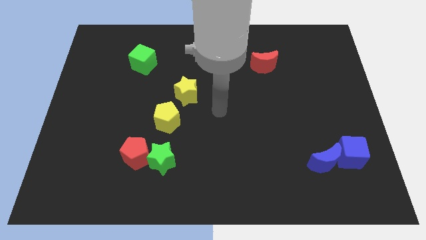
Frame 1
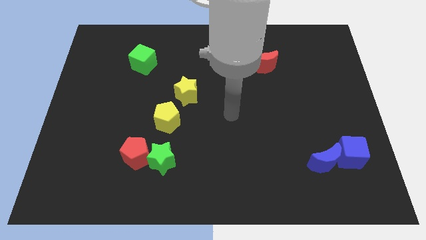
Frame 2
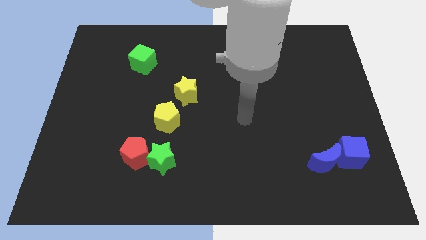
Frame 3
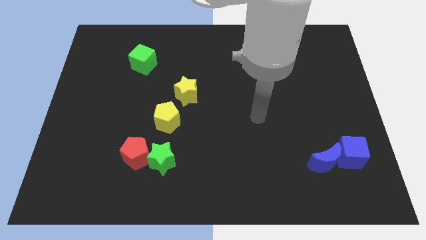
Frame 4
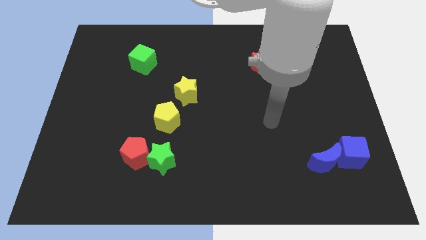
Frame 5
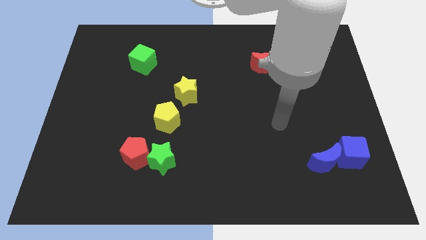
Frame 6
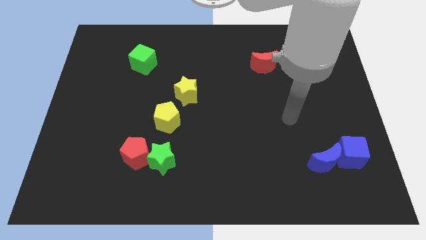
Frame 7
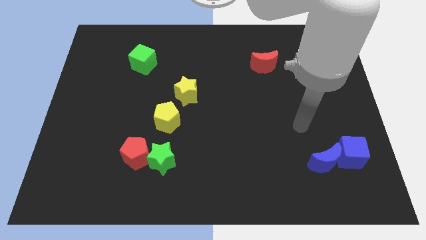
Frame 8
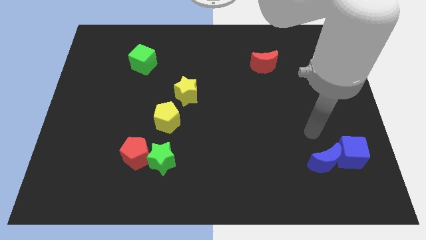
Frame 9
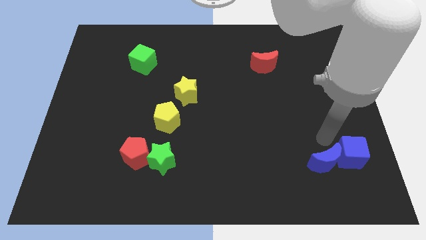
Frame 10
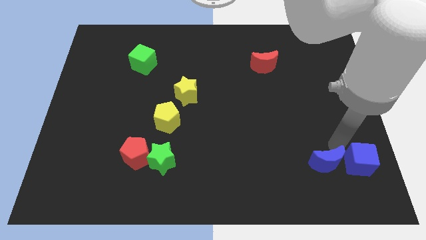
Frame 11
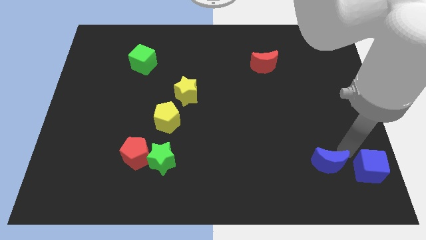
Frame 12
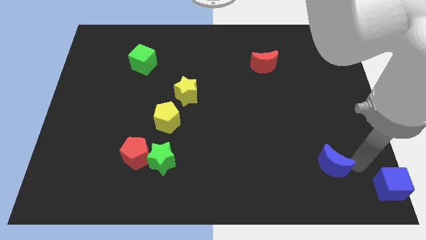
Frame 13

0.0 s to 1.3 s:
pull the blue moon apart from the blue cube

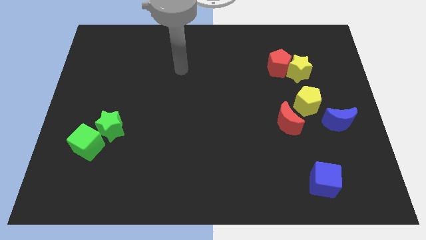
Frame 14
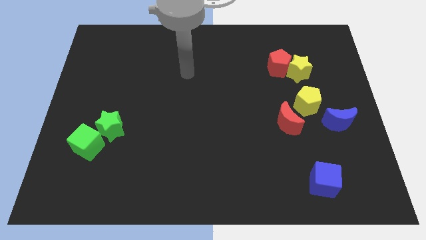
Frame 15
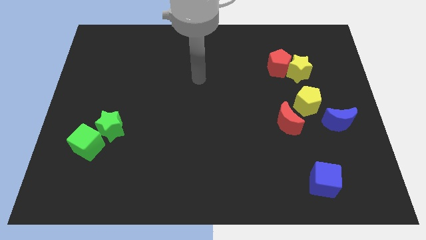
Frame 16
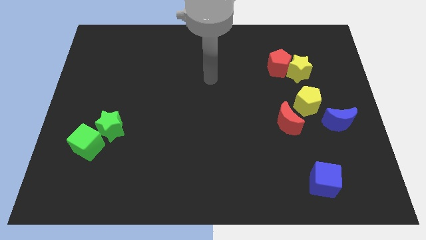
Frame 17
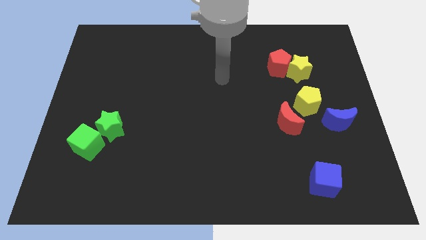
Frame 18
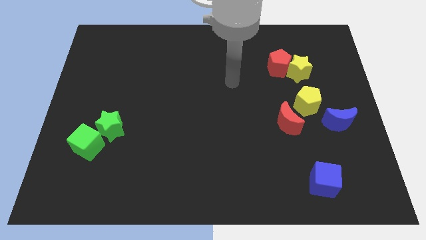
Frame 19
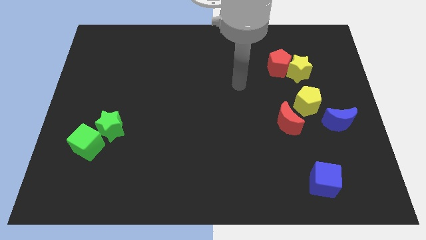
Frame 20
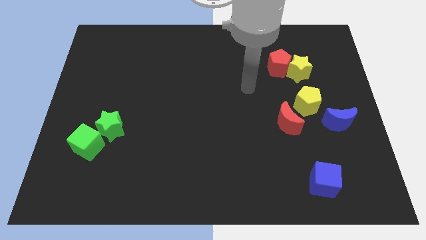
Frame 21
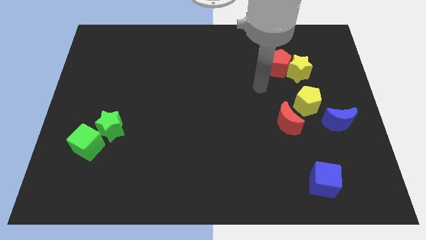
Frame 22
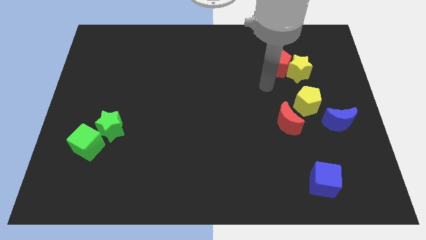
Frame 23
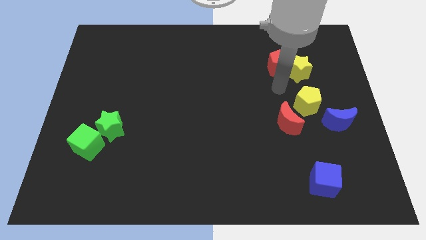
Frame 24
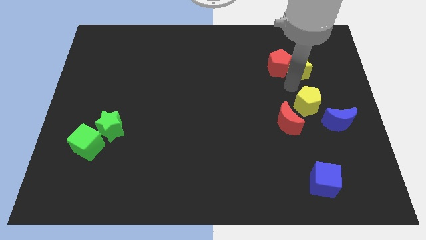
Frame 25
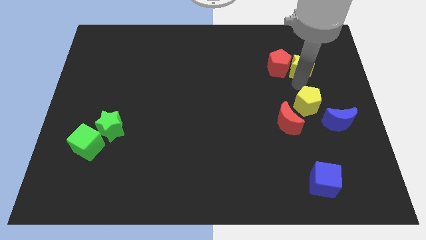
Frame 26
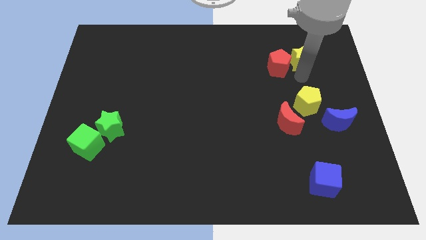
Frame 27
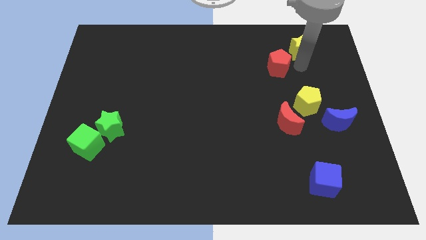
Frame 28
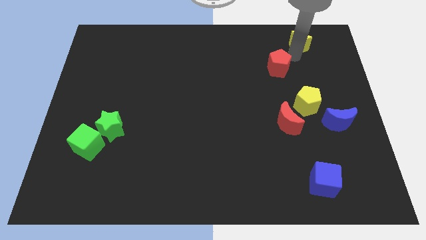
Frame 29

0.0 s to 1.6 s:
separate the red pentagon from the yellow star

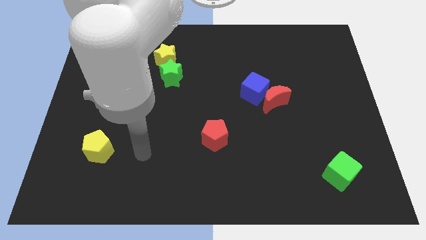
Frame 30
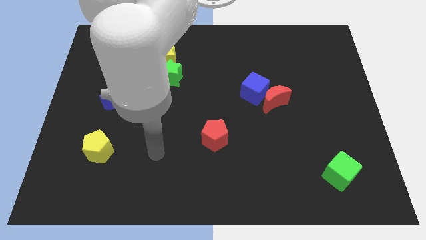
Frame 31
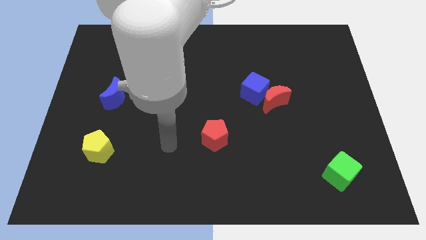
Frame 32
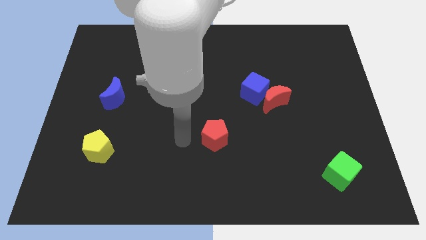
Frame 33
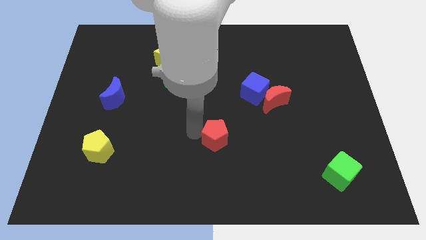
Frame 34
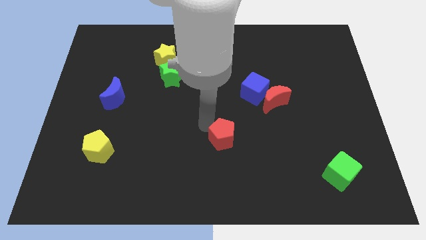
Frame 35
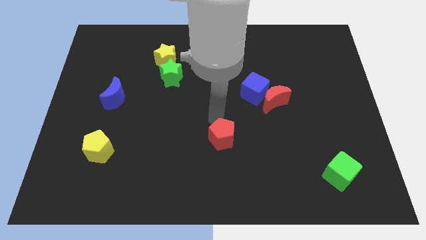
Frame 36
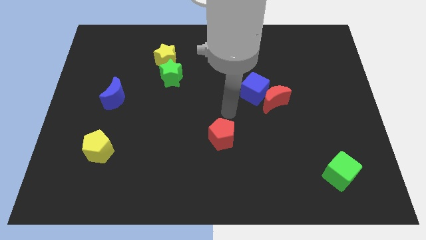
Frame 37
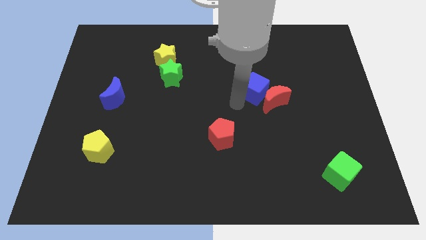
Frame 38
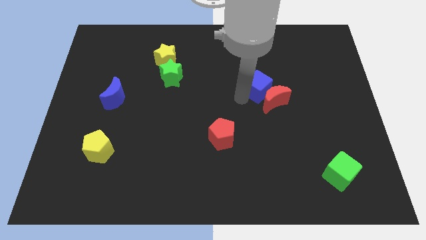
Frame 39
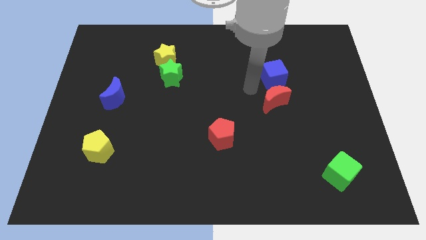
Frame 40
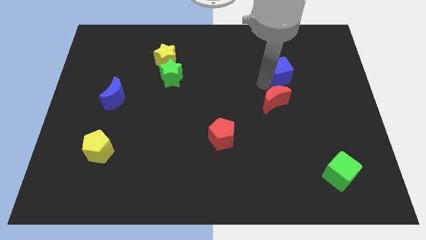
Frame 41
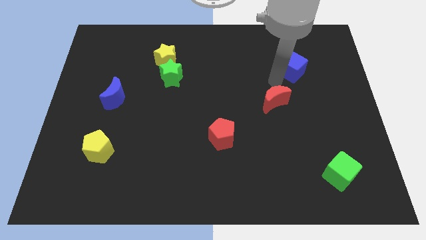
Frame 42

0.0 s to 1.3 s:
move the red moon away from the blue cube

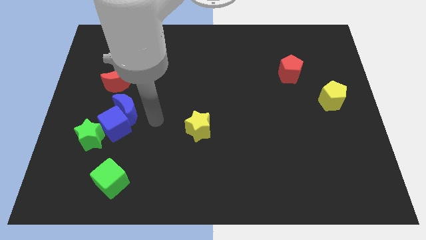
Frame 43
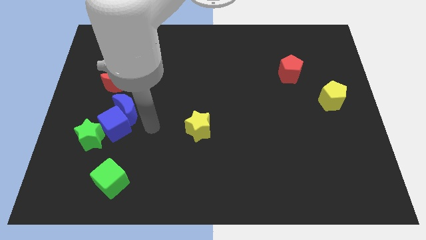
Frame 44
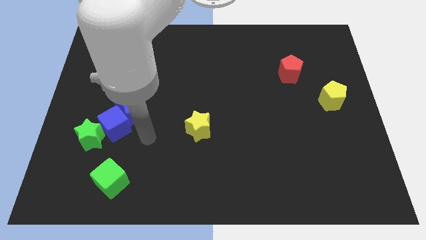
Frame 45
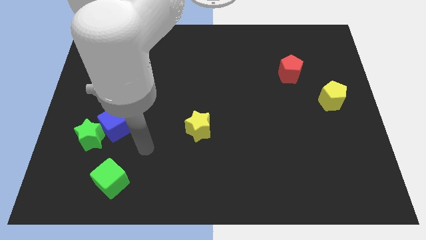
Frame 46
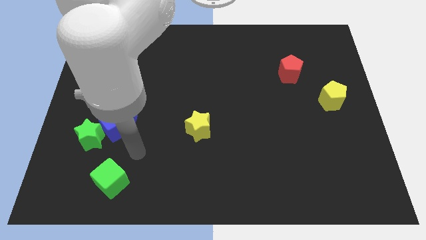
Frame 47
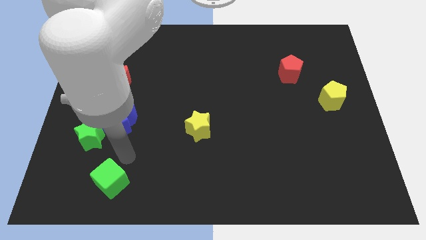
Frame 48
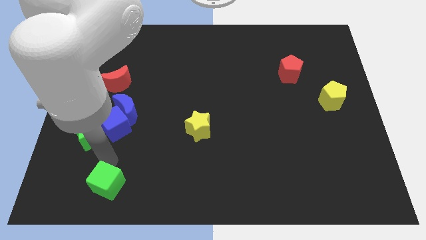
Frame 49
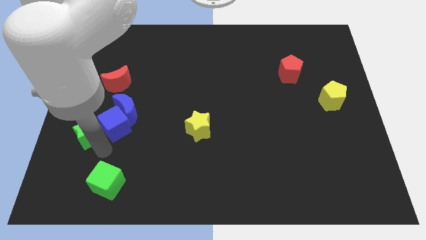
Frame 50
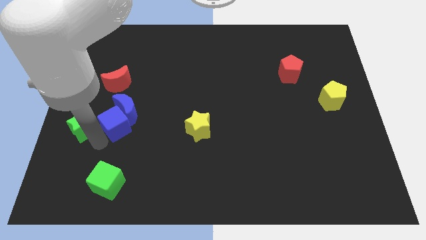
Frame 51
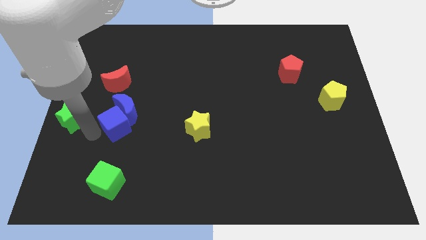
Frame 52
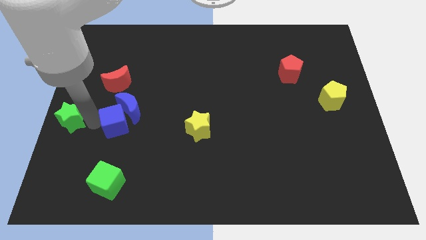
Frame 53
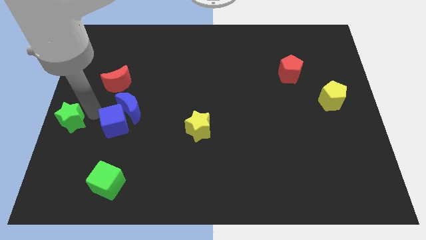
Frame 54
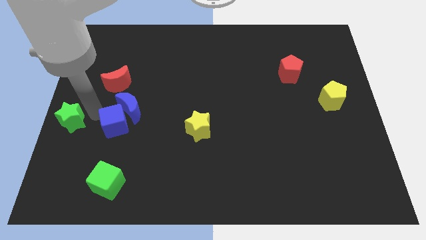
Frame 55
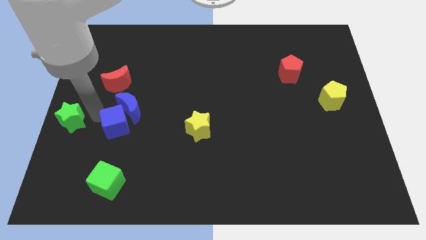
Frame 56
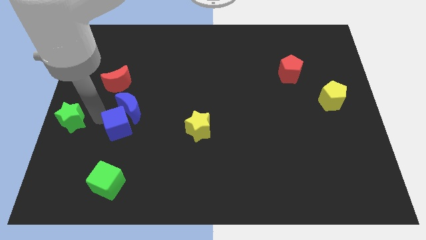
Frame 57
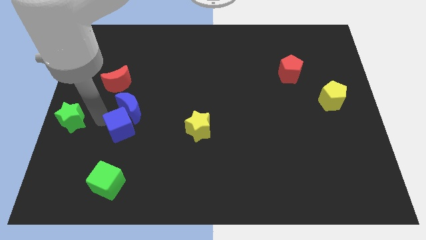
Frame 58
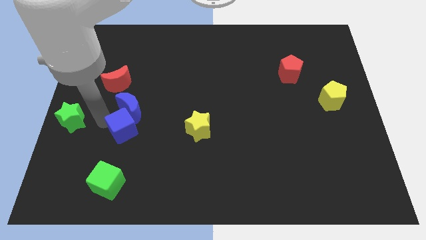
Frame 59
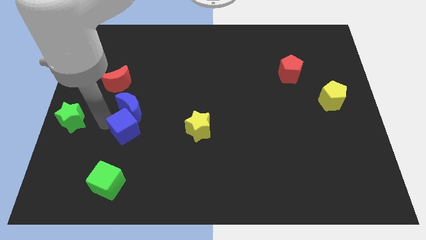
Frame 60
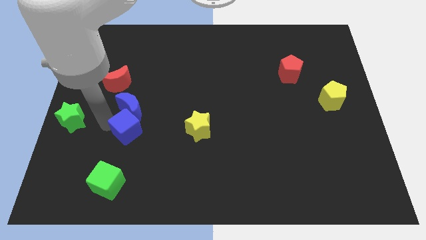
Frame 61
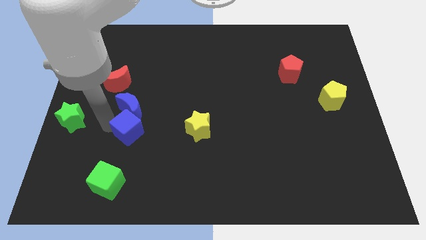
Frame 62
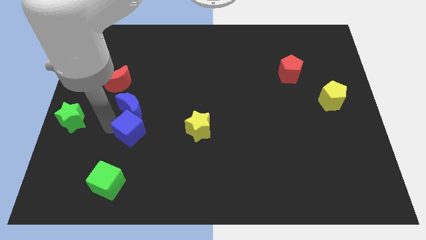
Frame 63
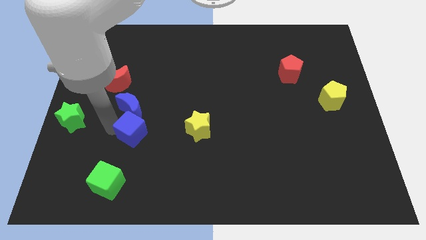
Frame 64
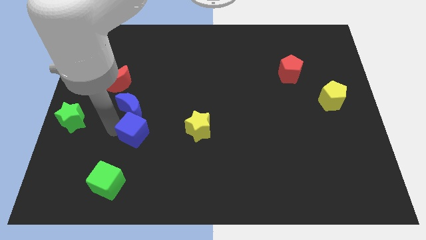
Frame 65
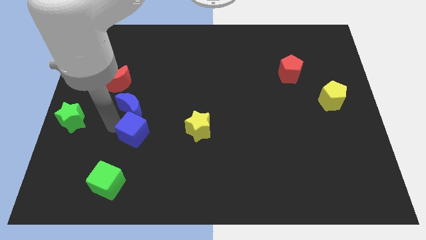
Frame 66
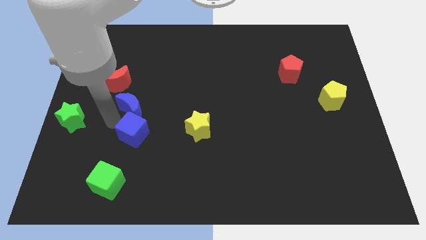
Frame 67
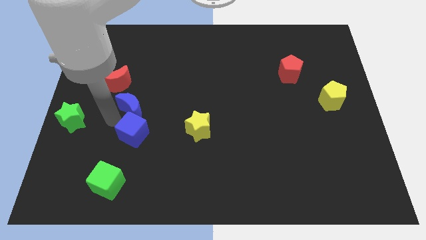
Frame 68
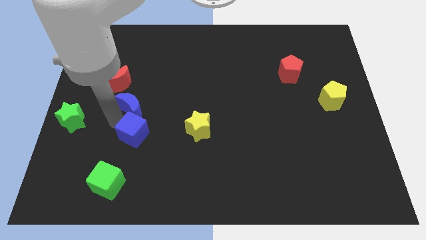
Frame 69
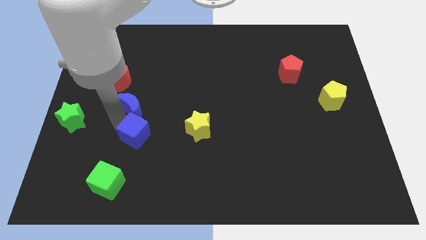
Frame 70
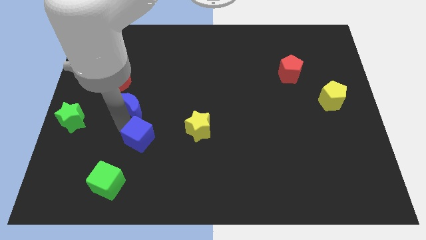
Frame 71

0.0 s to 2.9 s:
pull the blue cube apart from the blue moon and green star

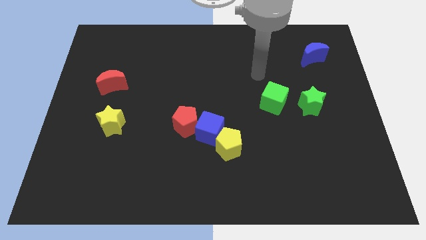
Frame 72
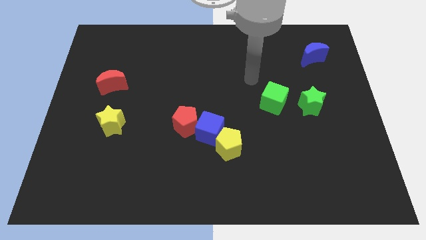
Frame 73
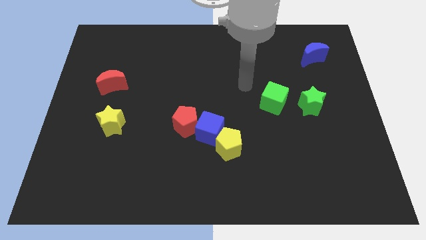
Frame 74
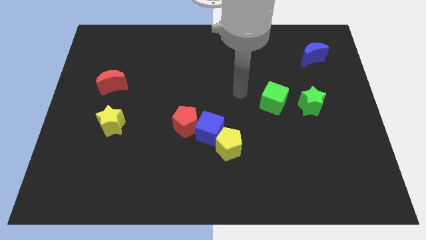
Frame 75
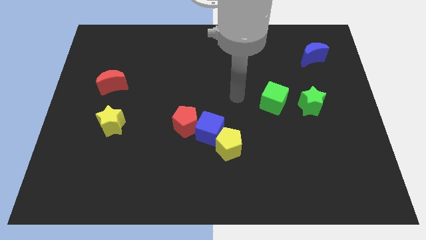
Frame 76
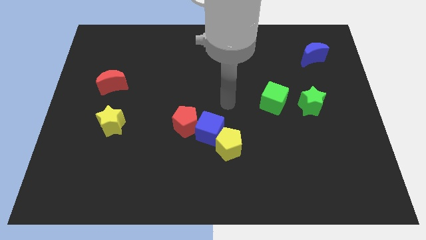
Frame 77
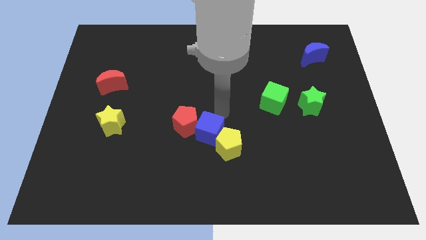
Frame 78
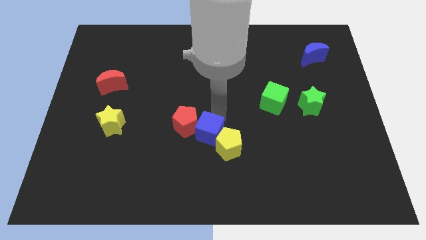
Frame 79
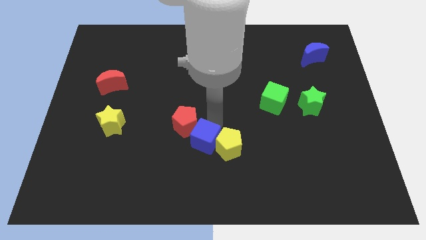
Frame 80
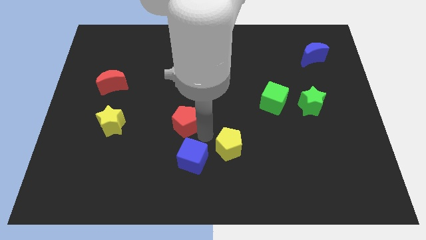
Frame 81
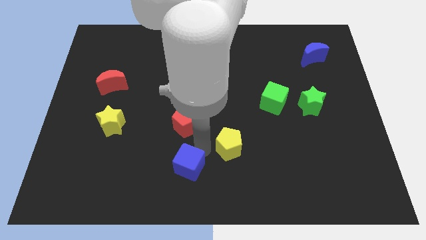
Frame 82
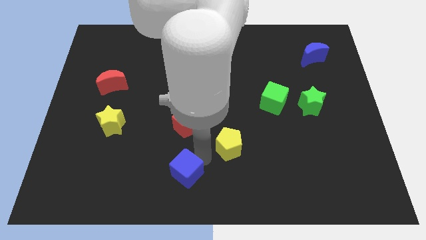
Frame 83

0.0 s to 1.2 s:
separate the yellow pentagon from the blue cube

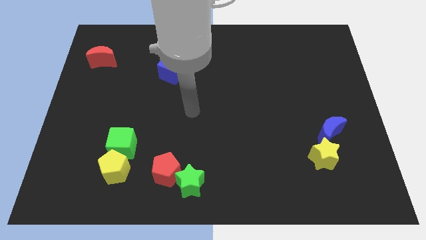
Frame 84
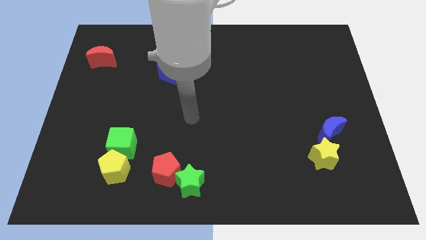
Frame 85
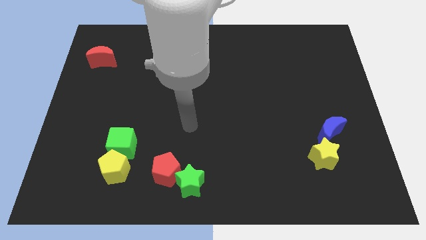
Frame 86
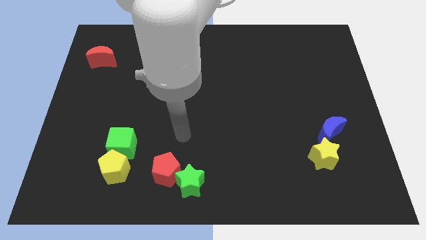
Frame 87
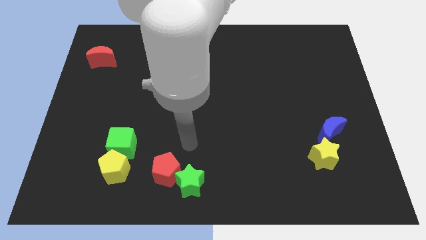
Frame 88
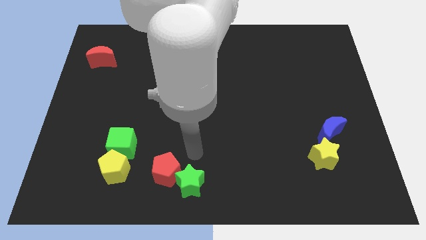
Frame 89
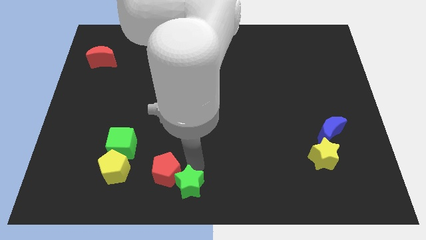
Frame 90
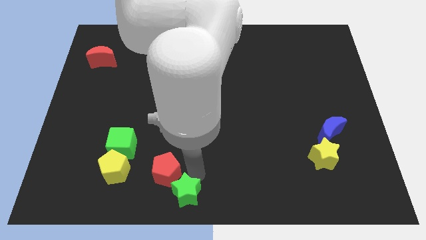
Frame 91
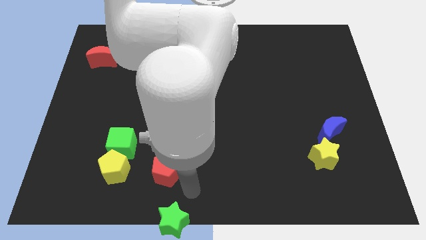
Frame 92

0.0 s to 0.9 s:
move the red pentagon away from the green star
